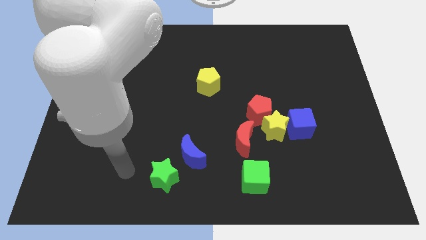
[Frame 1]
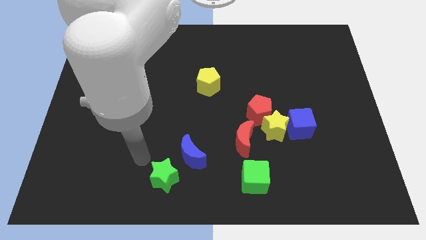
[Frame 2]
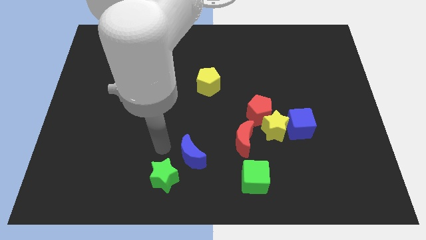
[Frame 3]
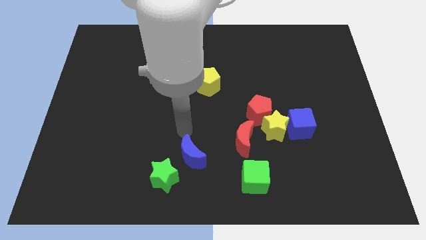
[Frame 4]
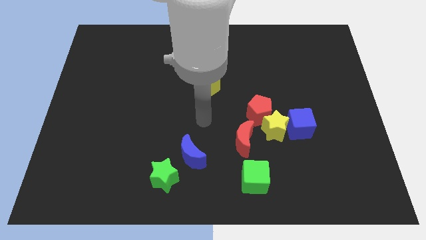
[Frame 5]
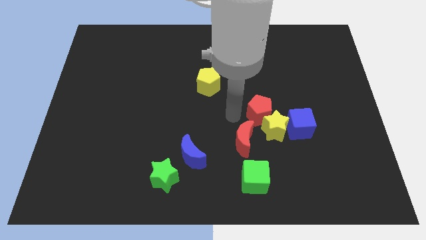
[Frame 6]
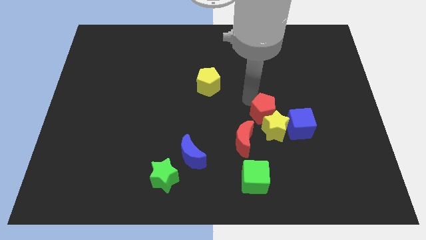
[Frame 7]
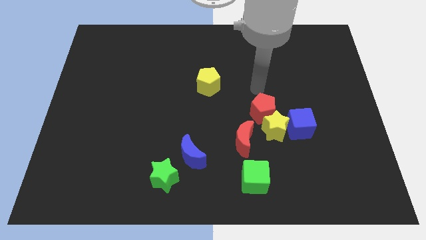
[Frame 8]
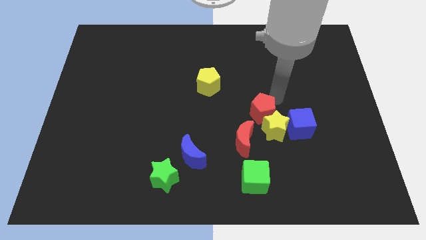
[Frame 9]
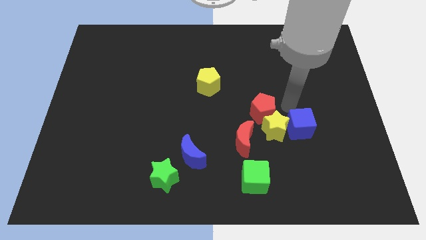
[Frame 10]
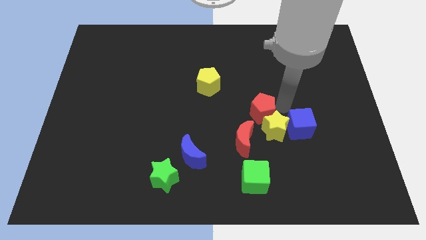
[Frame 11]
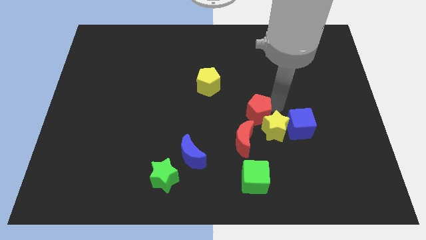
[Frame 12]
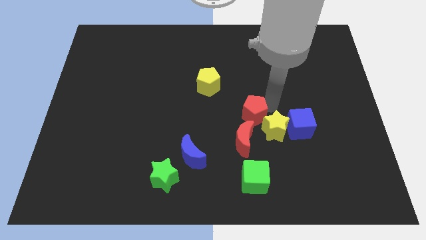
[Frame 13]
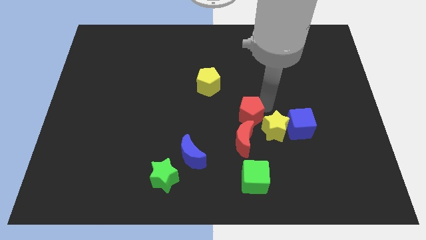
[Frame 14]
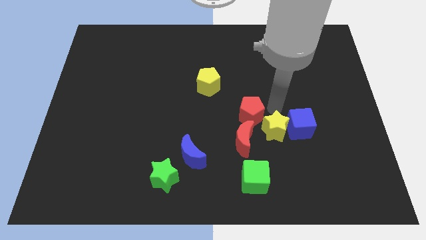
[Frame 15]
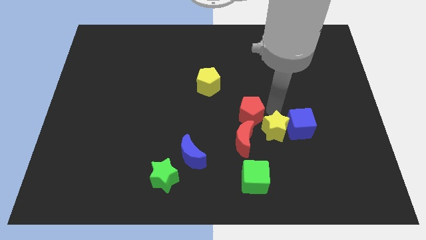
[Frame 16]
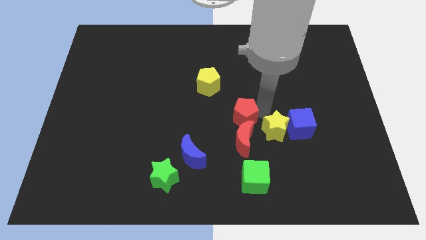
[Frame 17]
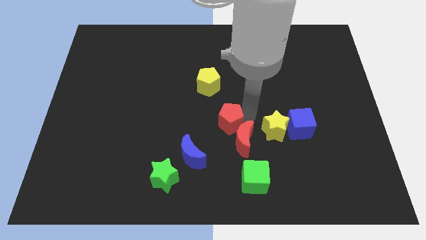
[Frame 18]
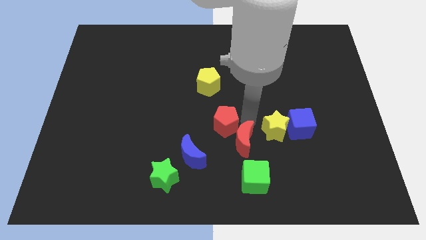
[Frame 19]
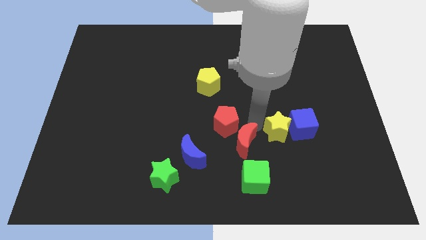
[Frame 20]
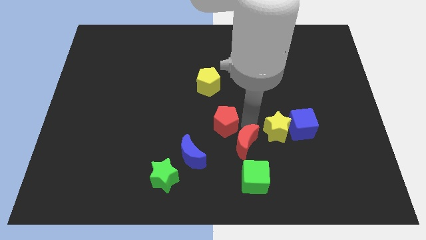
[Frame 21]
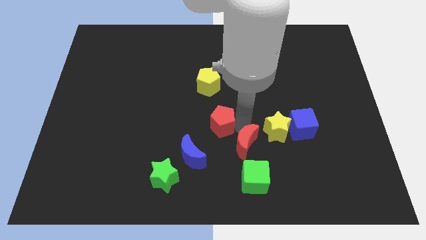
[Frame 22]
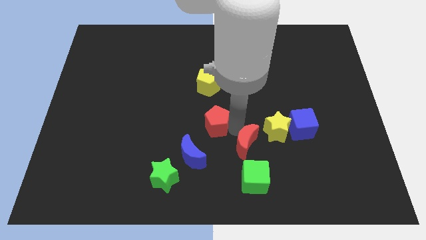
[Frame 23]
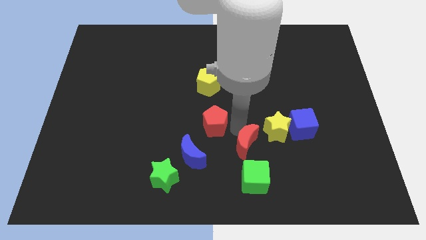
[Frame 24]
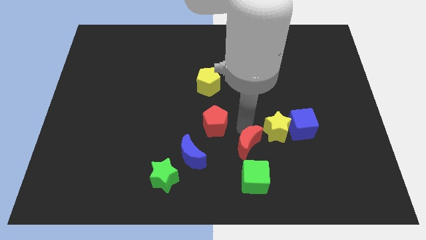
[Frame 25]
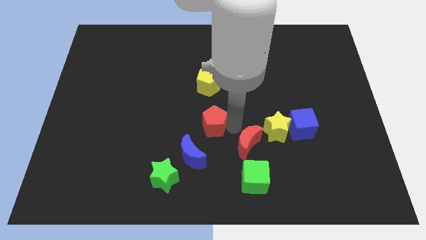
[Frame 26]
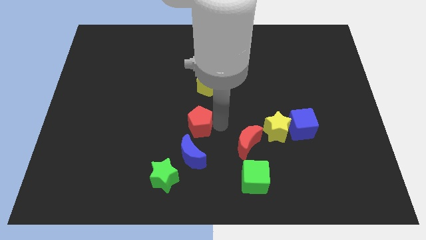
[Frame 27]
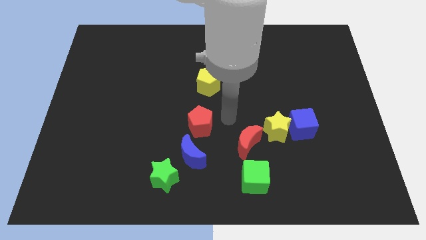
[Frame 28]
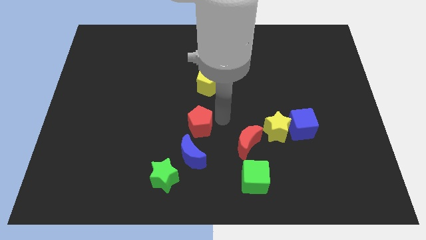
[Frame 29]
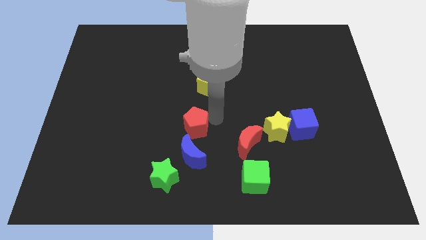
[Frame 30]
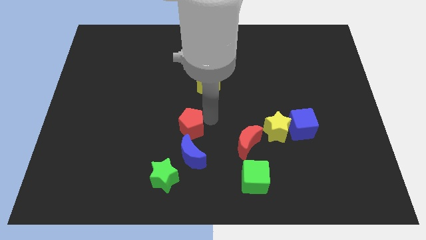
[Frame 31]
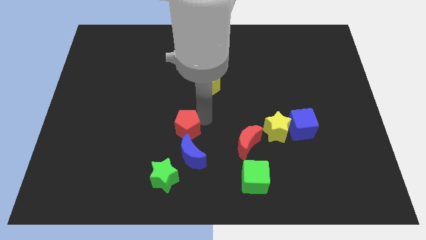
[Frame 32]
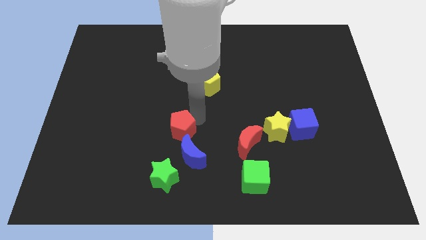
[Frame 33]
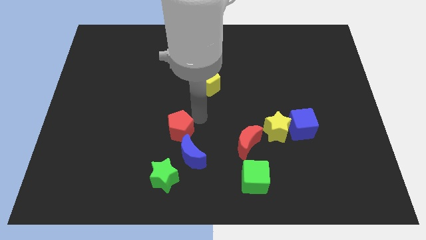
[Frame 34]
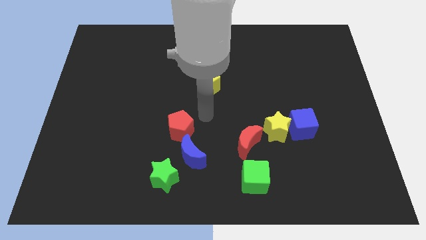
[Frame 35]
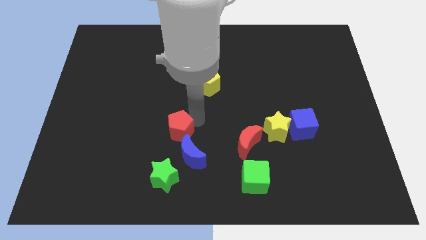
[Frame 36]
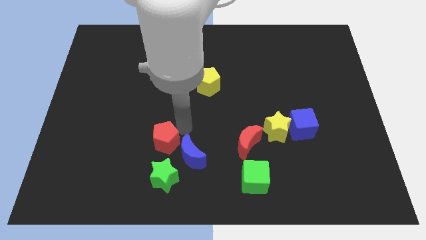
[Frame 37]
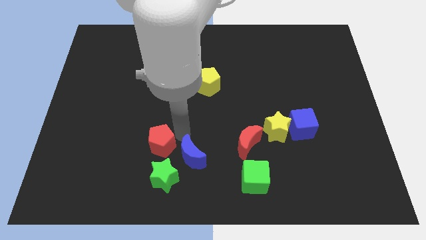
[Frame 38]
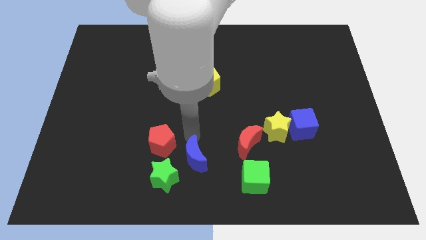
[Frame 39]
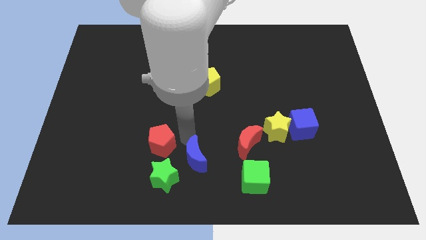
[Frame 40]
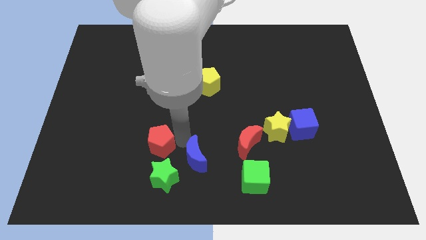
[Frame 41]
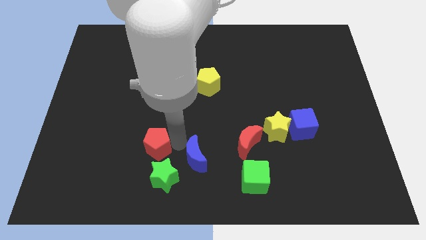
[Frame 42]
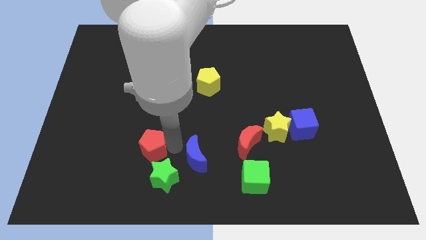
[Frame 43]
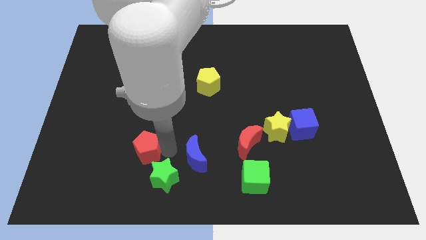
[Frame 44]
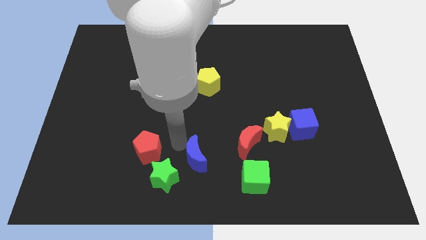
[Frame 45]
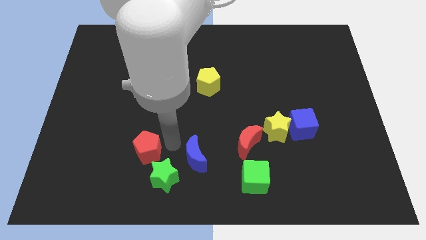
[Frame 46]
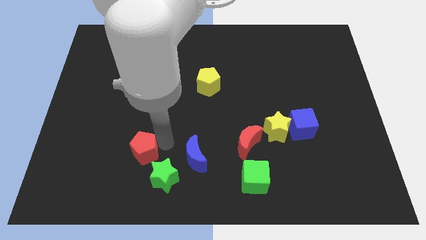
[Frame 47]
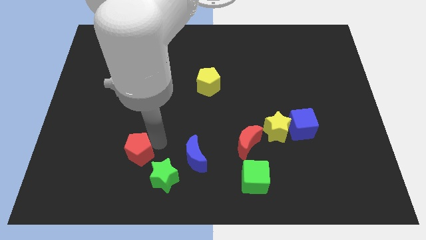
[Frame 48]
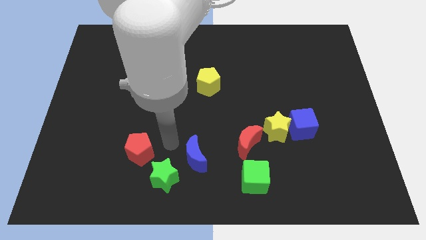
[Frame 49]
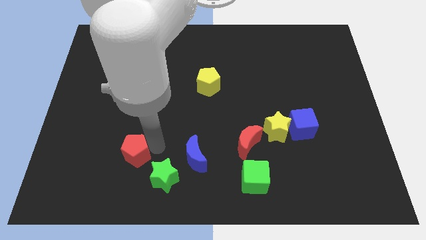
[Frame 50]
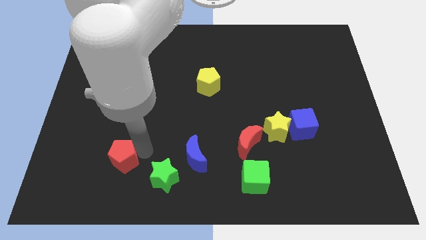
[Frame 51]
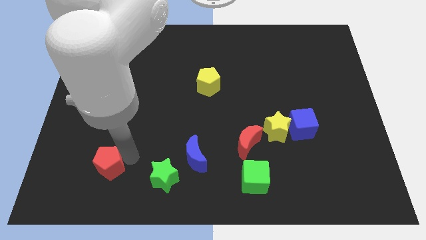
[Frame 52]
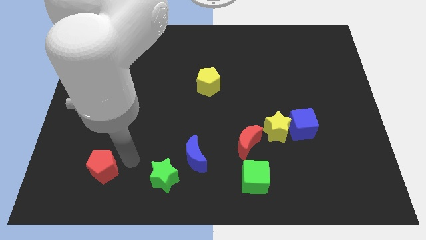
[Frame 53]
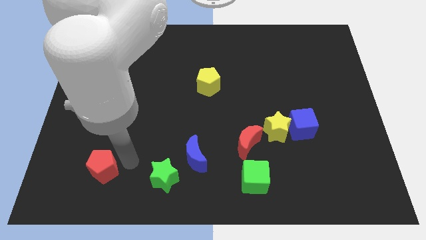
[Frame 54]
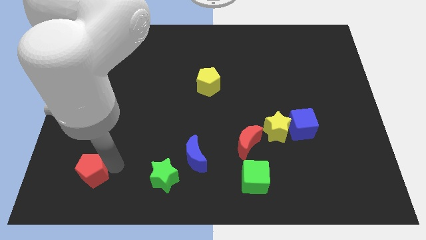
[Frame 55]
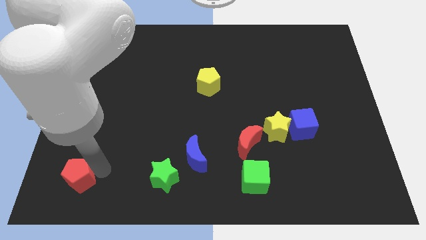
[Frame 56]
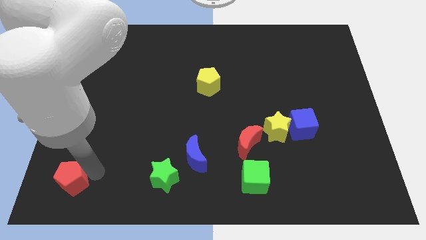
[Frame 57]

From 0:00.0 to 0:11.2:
put the red pentagon to the bottom left

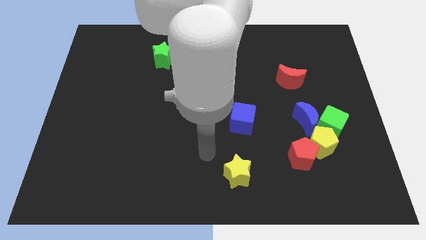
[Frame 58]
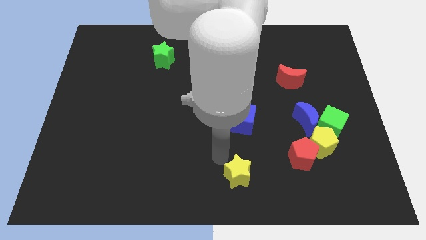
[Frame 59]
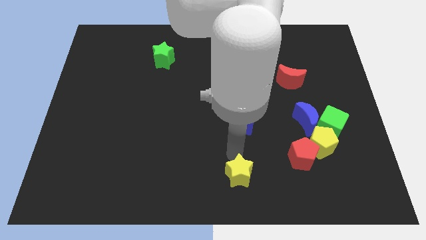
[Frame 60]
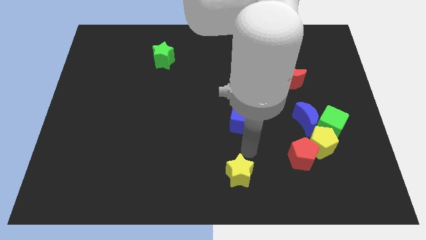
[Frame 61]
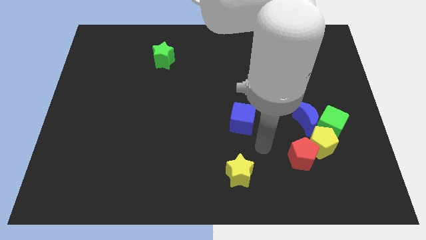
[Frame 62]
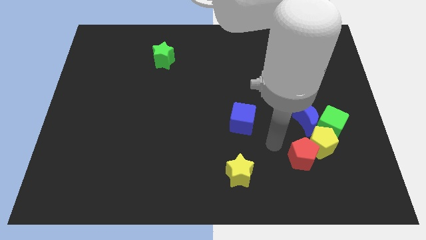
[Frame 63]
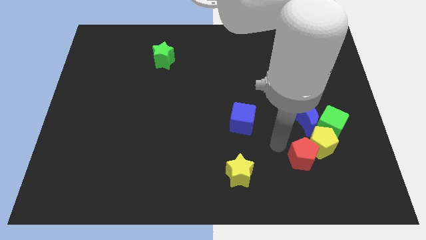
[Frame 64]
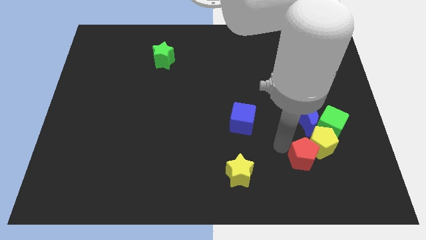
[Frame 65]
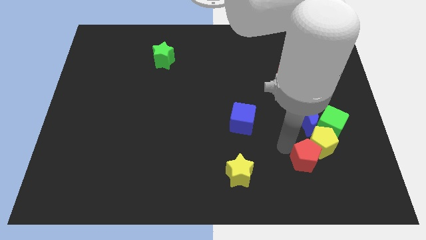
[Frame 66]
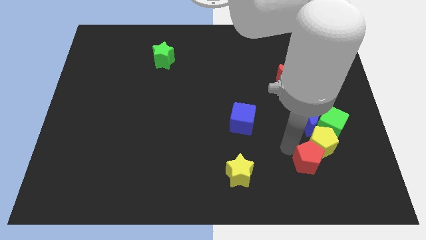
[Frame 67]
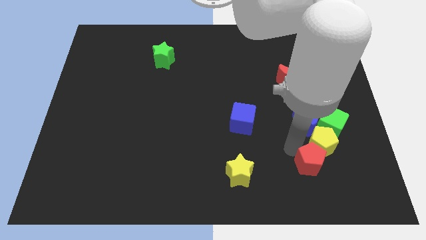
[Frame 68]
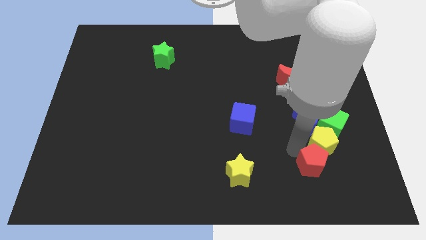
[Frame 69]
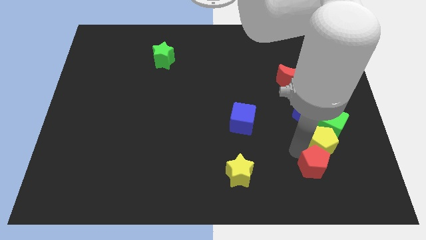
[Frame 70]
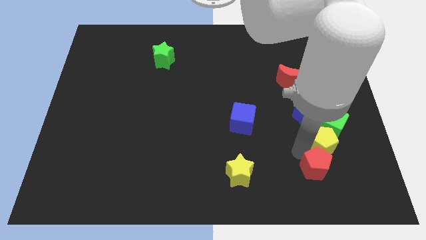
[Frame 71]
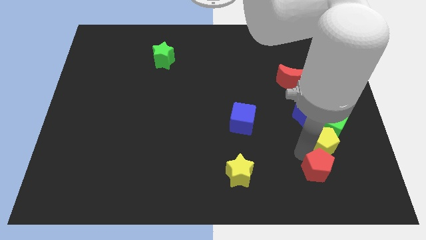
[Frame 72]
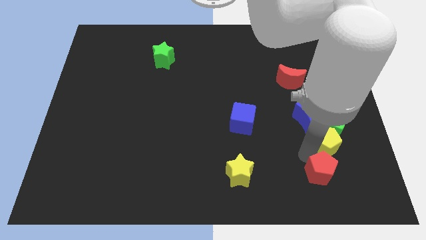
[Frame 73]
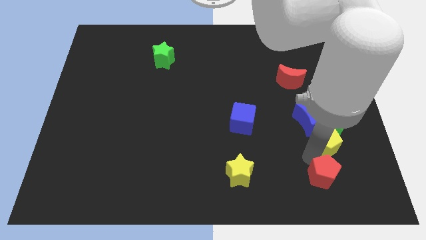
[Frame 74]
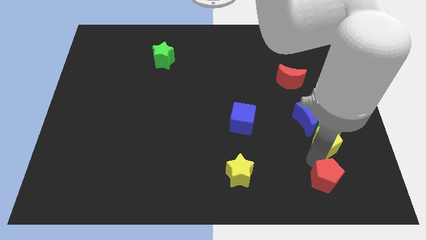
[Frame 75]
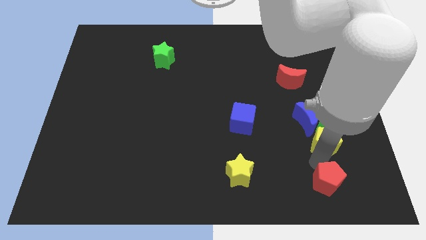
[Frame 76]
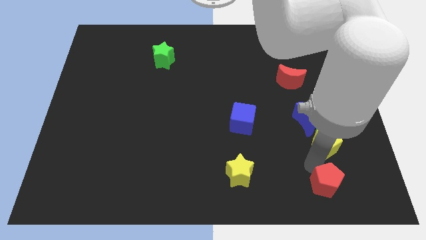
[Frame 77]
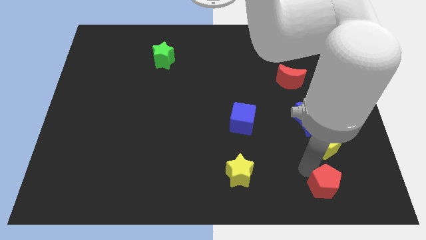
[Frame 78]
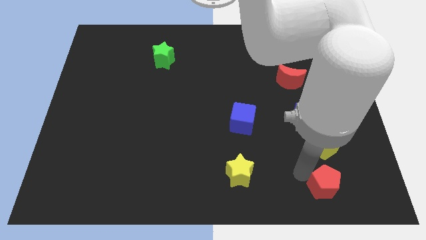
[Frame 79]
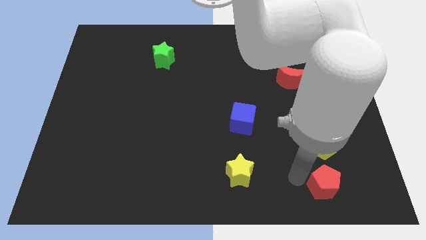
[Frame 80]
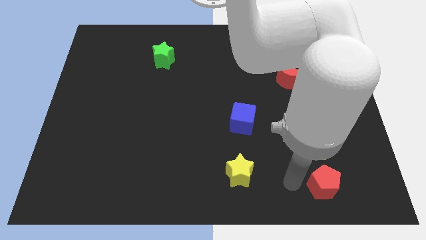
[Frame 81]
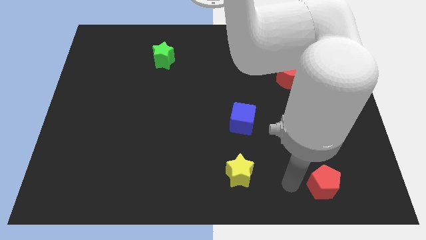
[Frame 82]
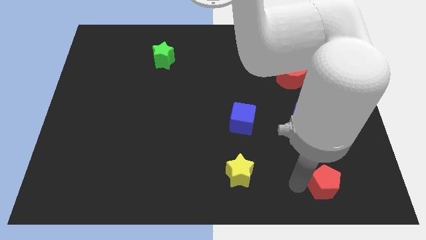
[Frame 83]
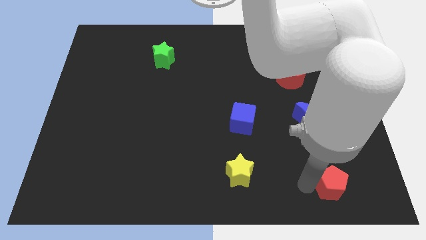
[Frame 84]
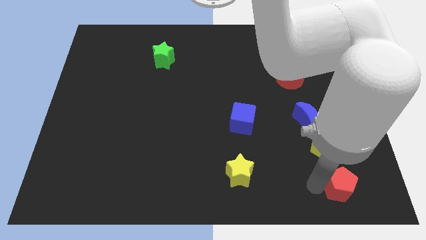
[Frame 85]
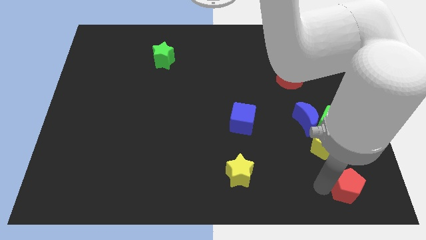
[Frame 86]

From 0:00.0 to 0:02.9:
move the red pentagon to the bottom right
